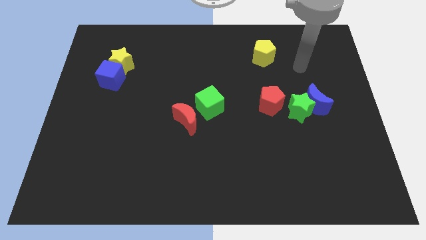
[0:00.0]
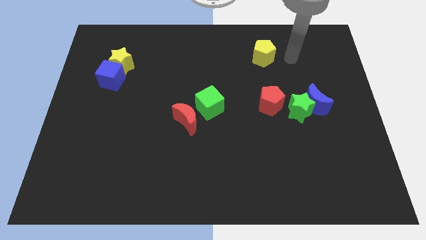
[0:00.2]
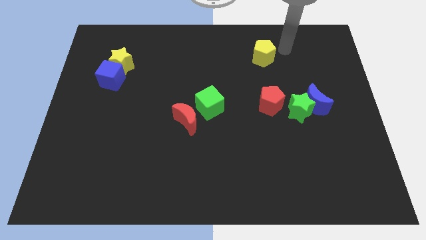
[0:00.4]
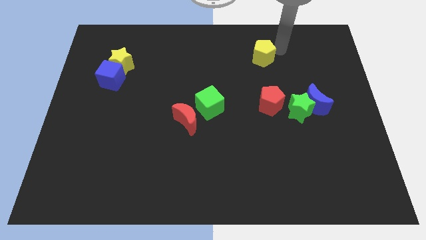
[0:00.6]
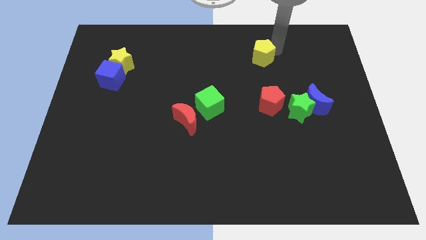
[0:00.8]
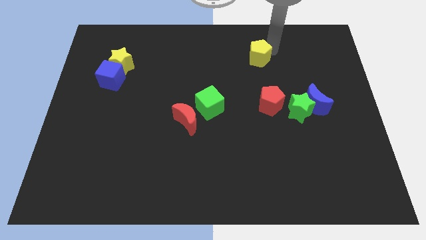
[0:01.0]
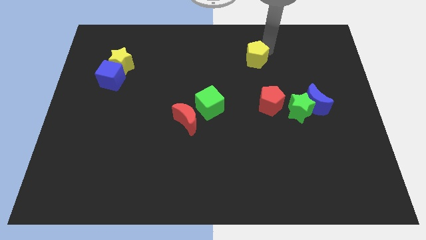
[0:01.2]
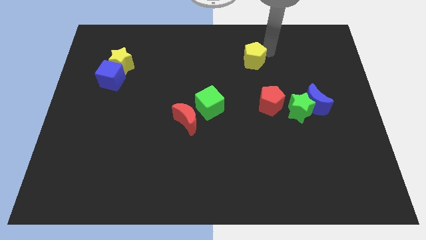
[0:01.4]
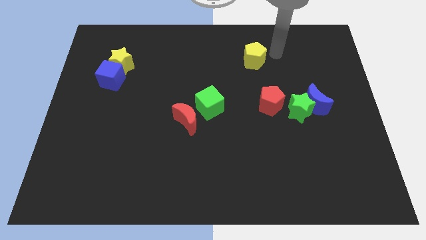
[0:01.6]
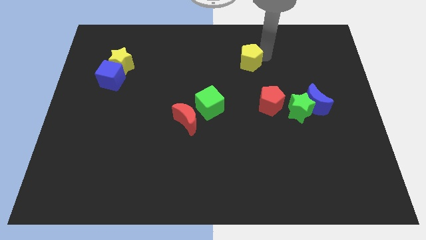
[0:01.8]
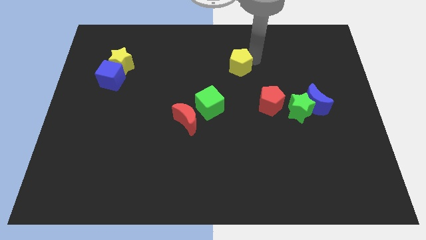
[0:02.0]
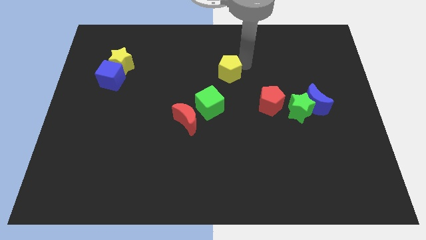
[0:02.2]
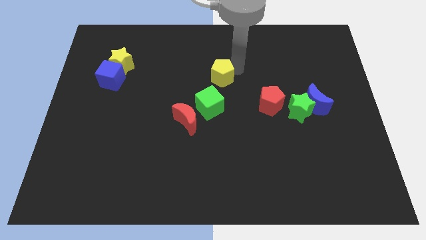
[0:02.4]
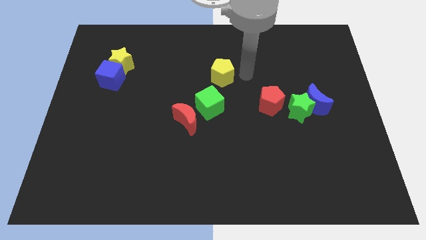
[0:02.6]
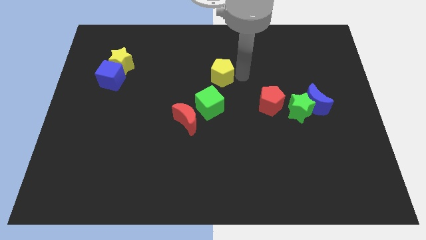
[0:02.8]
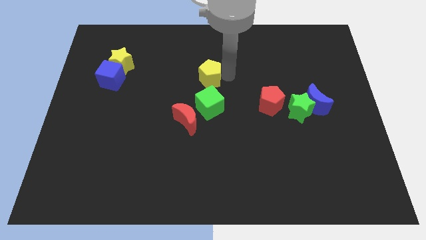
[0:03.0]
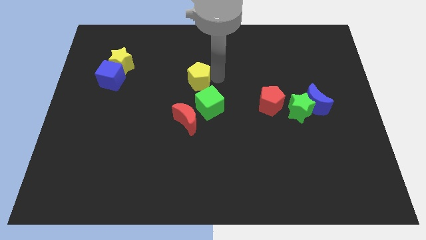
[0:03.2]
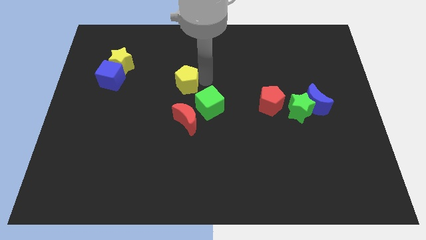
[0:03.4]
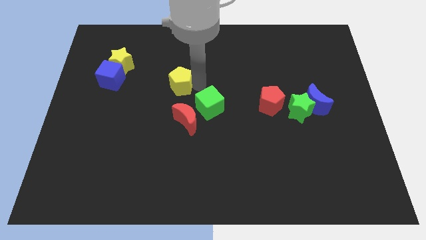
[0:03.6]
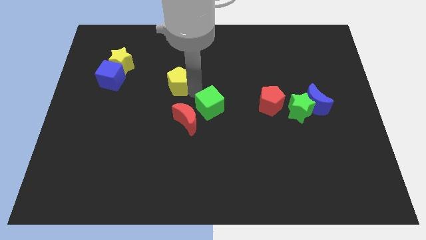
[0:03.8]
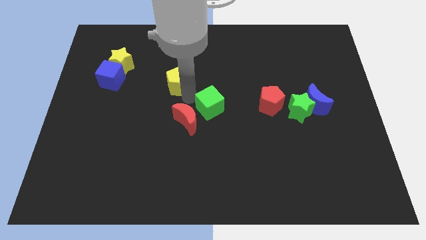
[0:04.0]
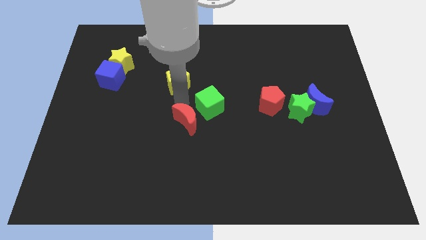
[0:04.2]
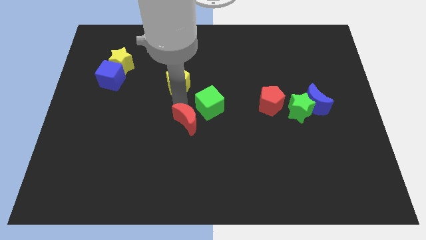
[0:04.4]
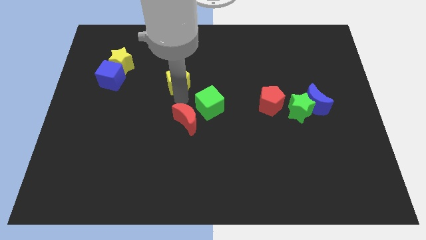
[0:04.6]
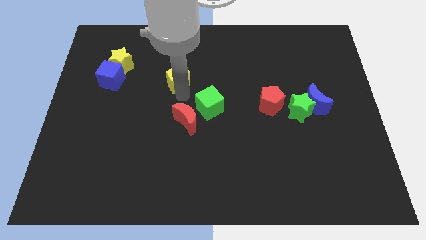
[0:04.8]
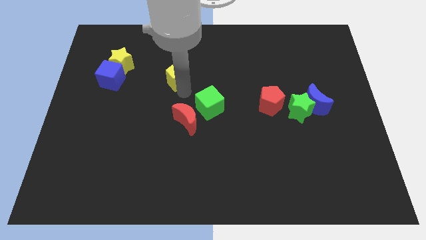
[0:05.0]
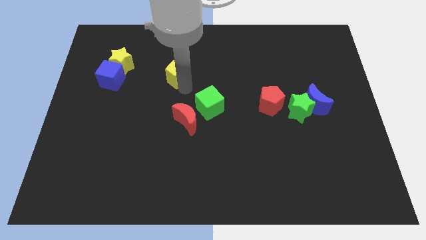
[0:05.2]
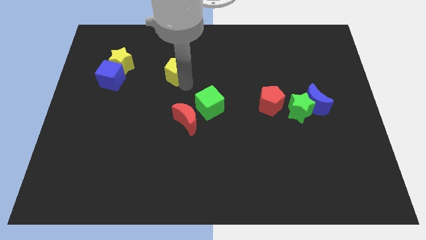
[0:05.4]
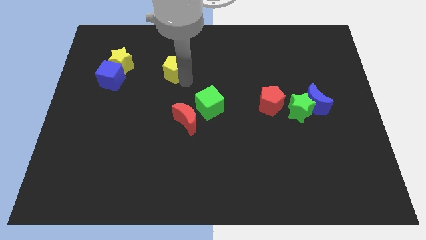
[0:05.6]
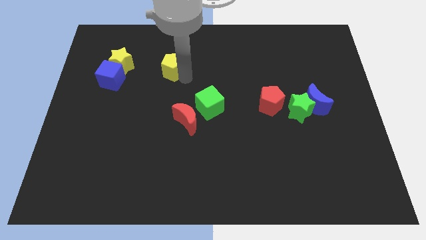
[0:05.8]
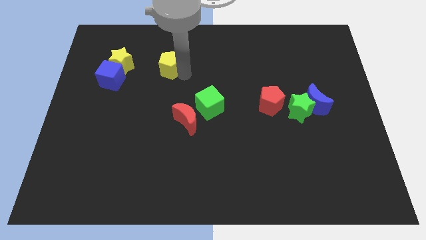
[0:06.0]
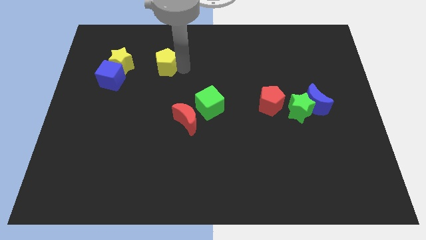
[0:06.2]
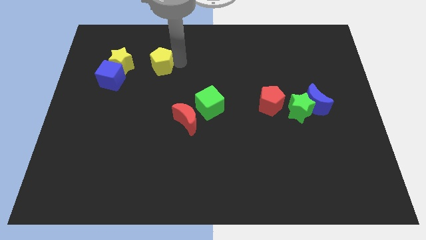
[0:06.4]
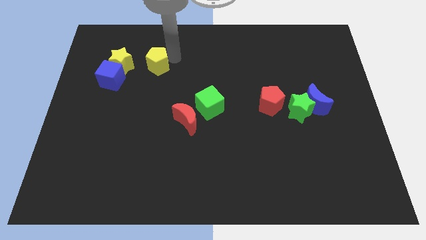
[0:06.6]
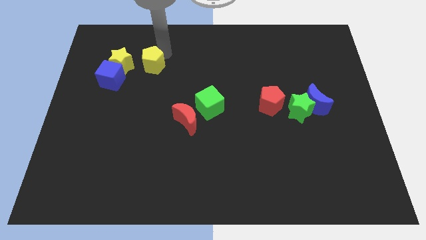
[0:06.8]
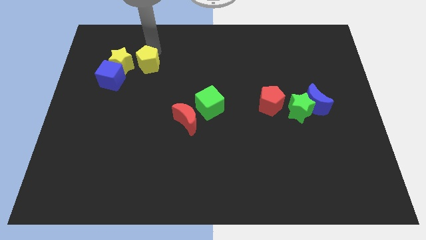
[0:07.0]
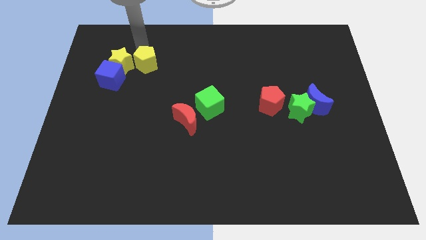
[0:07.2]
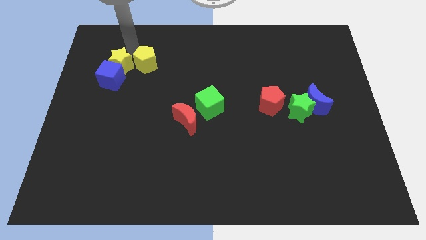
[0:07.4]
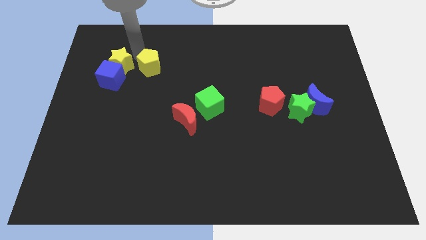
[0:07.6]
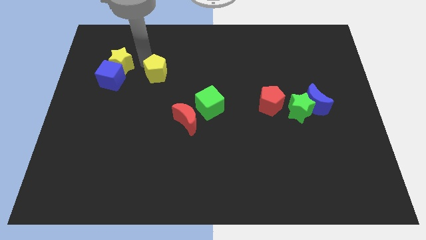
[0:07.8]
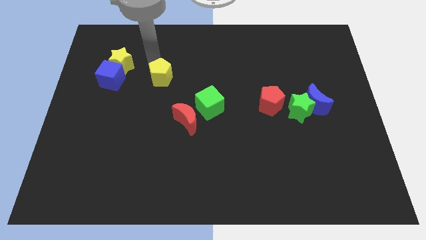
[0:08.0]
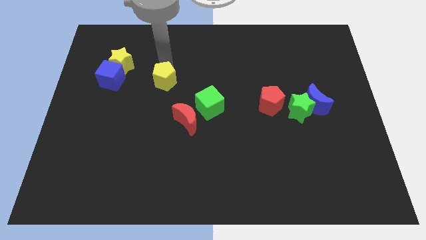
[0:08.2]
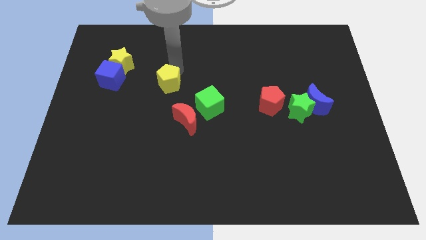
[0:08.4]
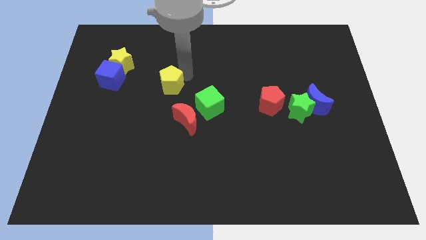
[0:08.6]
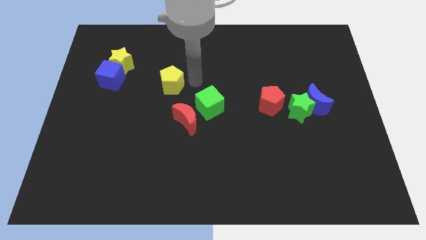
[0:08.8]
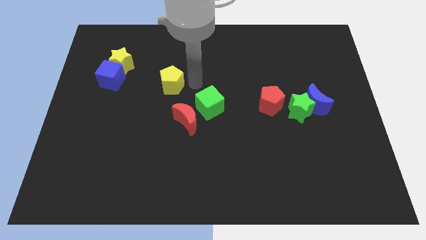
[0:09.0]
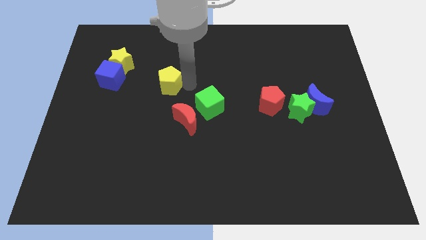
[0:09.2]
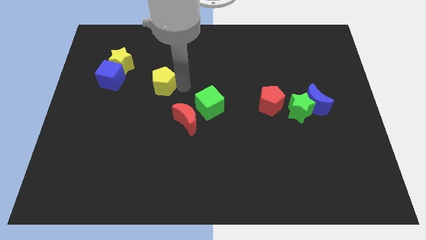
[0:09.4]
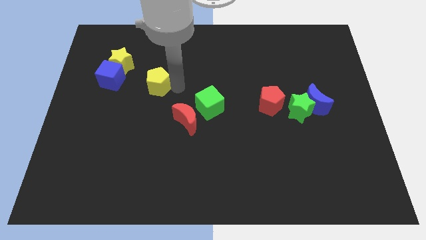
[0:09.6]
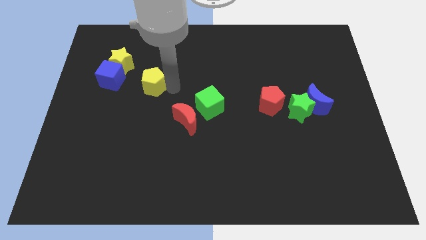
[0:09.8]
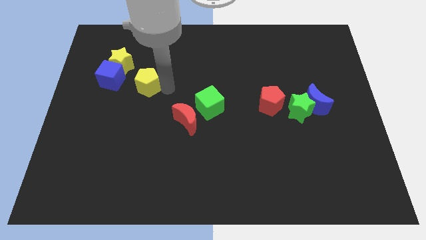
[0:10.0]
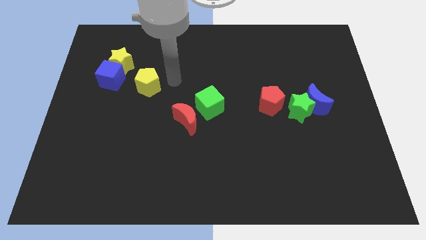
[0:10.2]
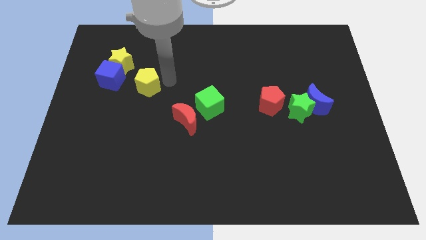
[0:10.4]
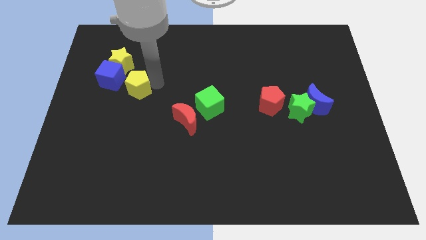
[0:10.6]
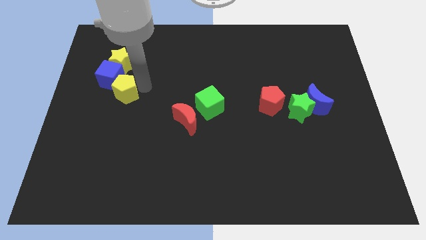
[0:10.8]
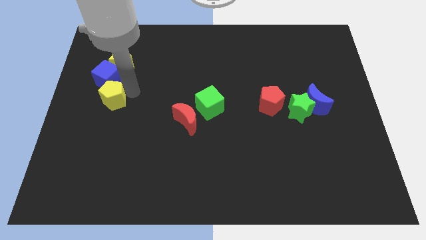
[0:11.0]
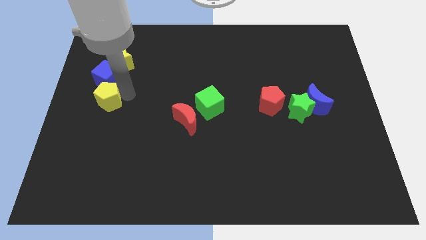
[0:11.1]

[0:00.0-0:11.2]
slide the yellow pentagon to the left side of the board
